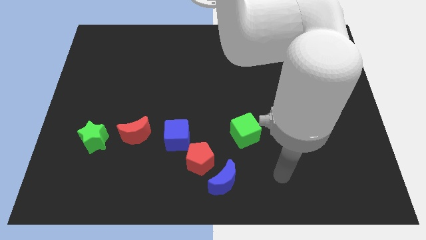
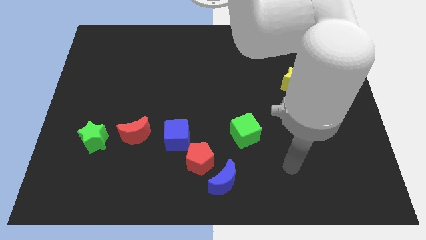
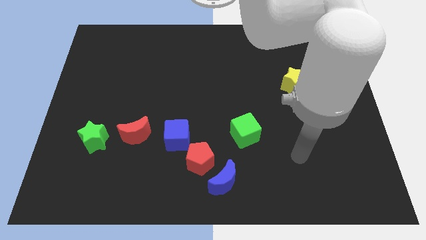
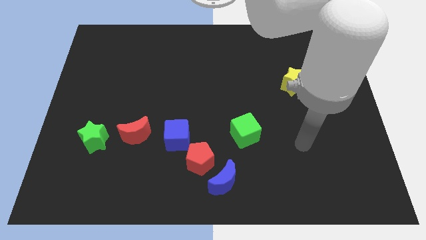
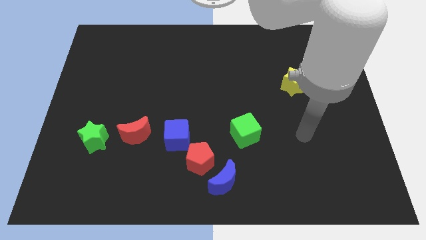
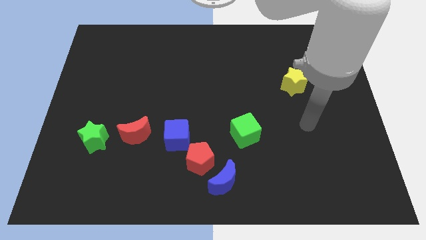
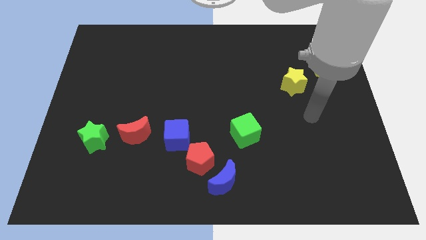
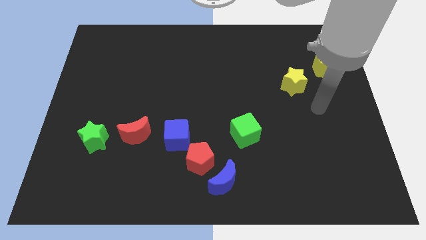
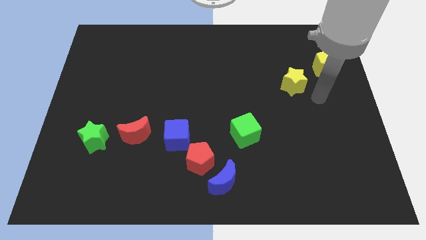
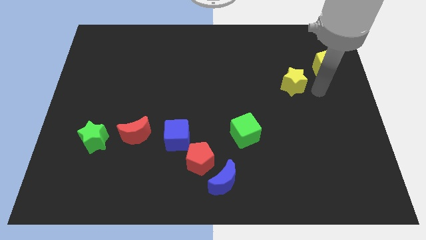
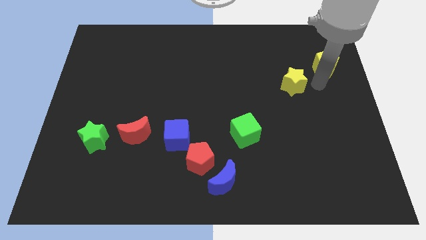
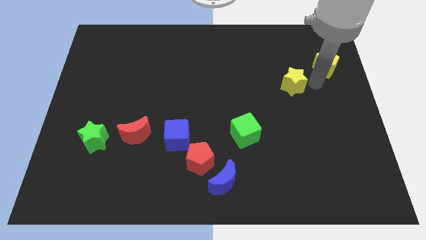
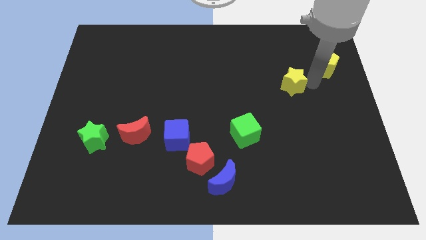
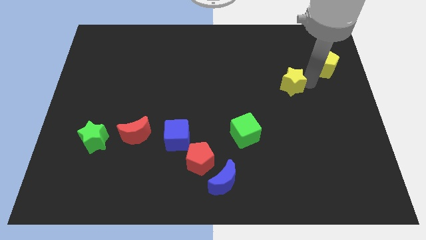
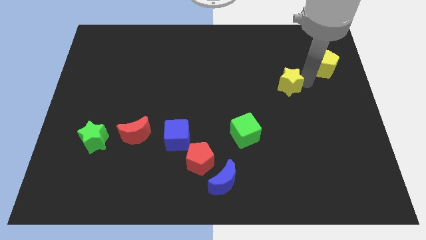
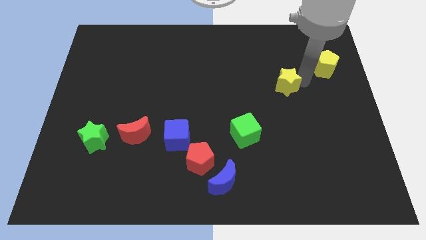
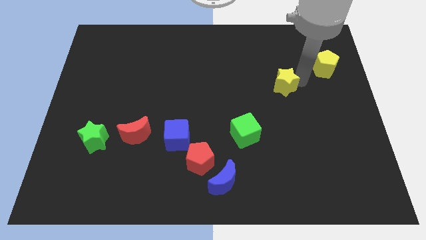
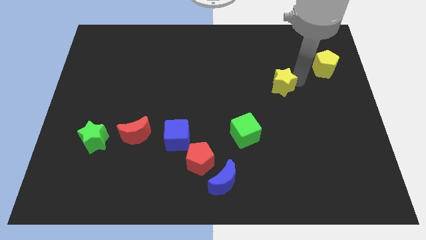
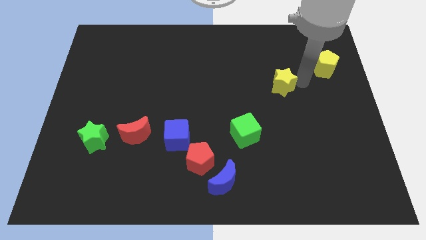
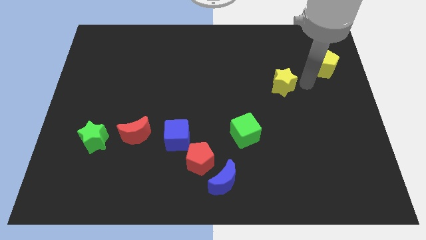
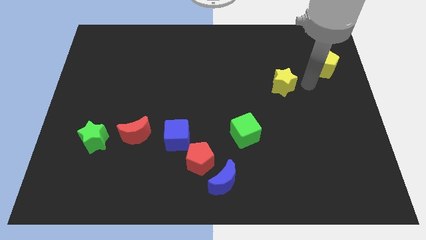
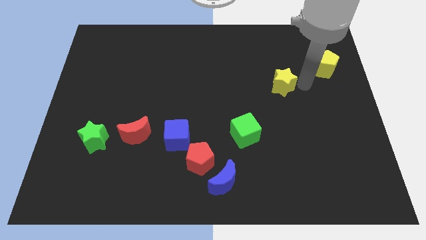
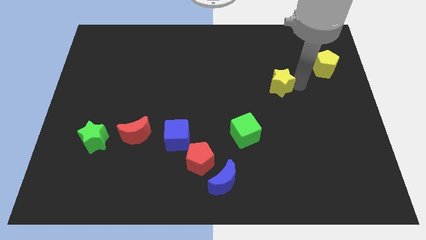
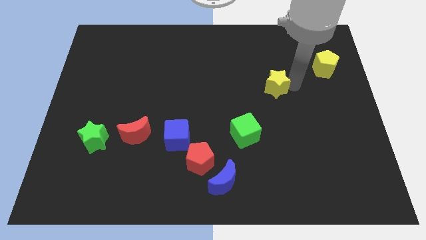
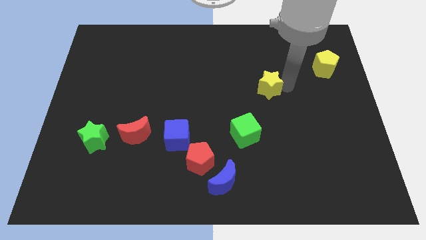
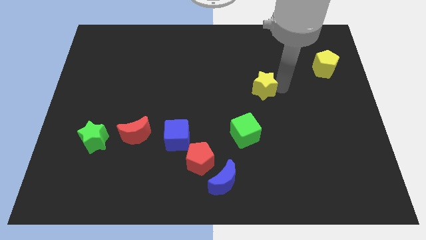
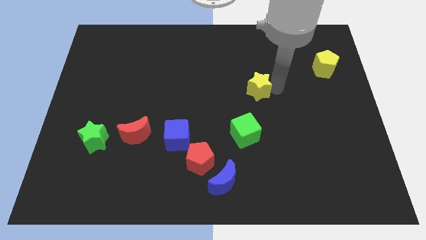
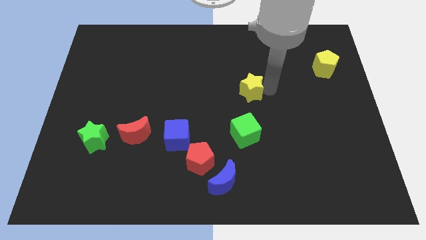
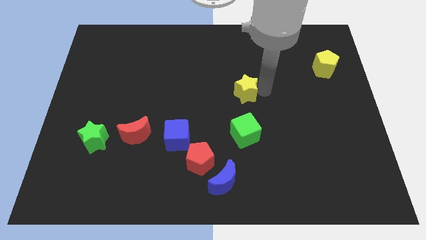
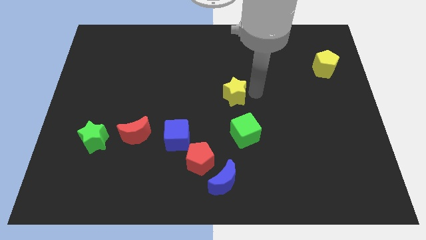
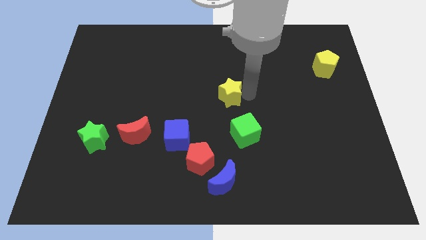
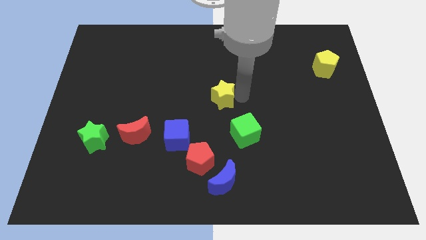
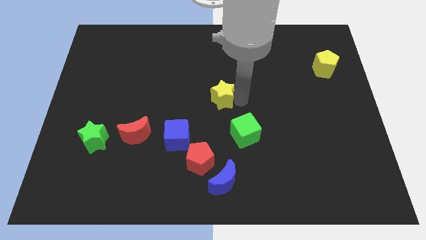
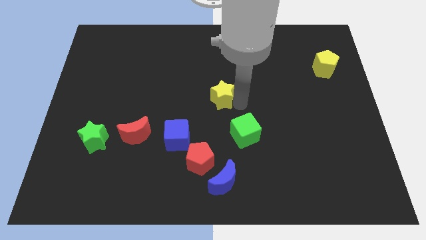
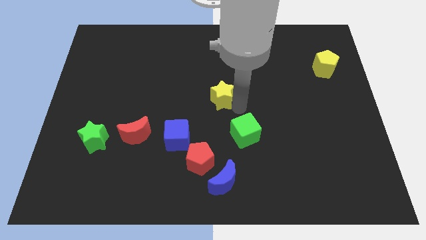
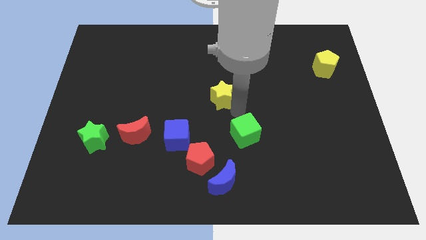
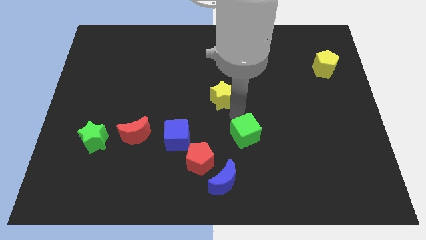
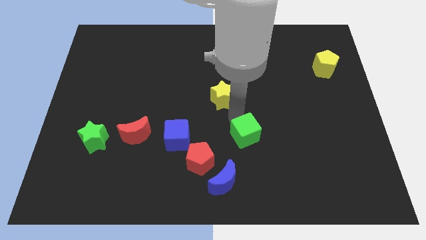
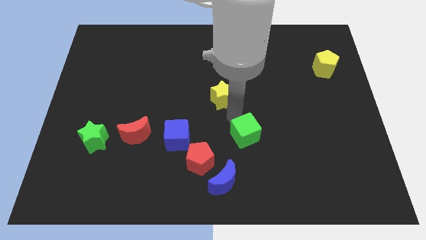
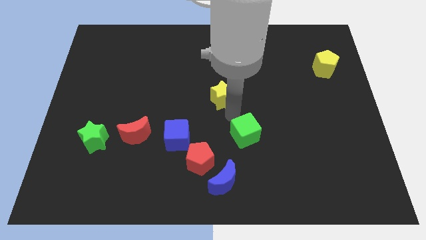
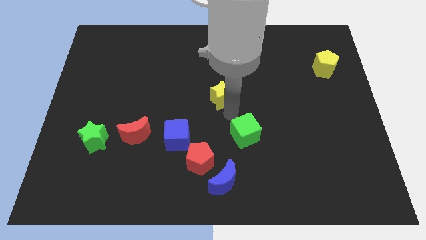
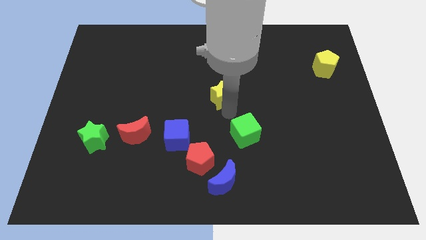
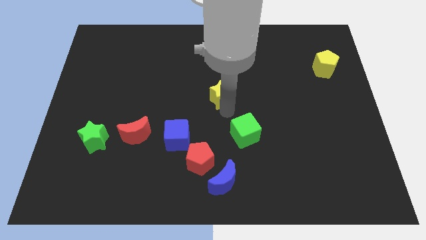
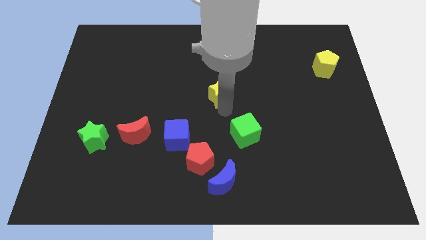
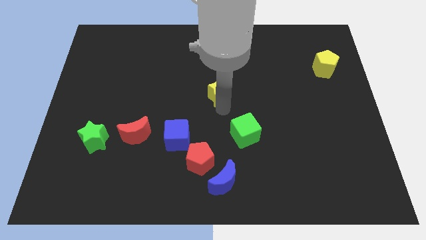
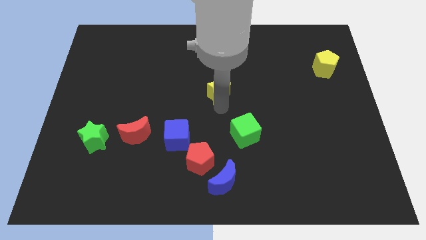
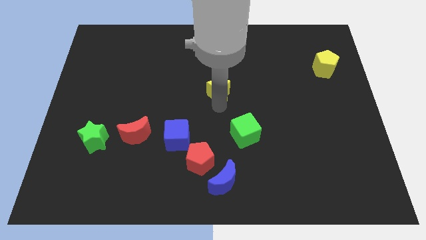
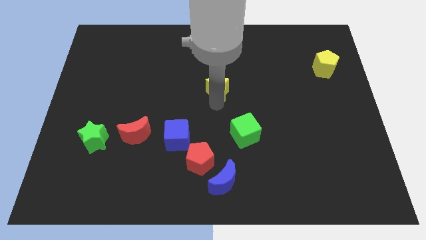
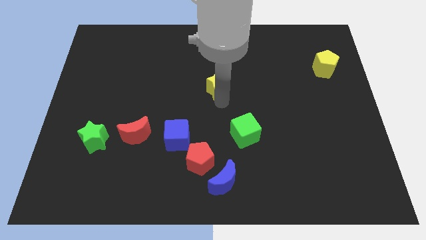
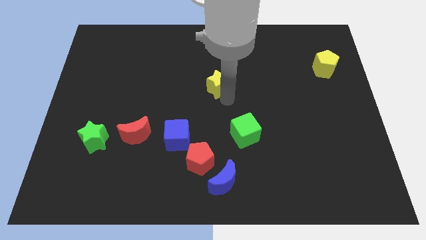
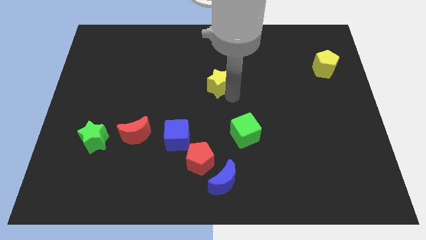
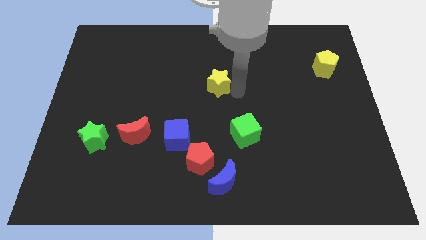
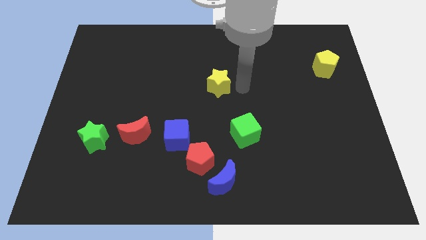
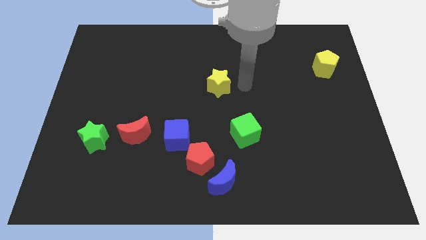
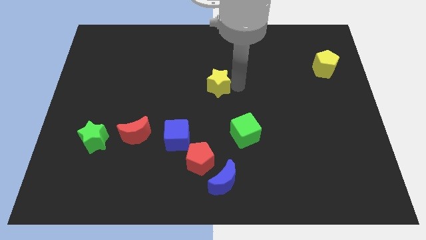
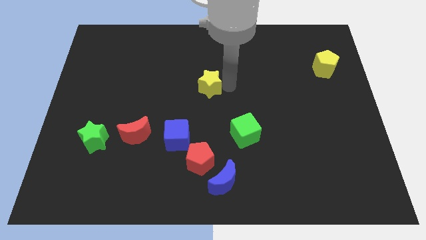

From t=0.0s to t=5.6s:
slide the yellow star to the left

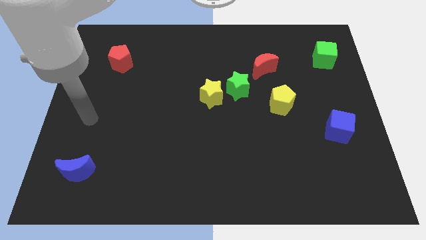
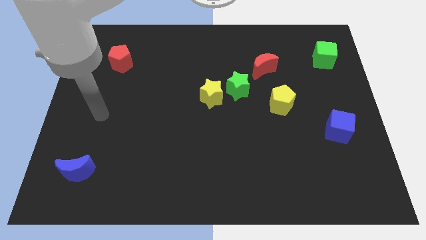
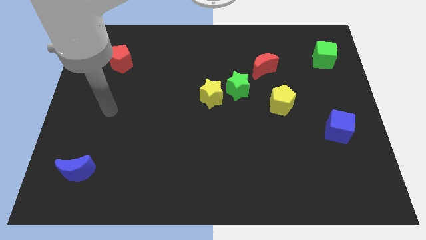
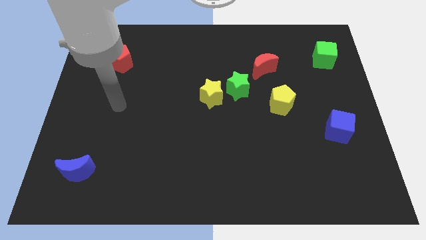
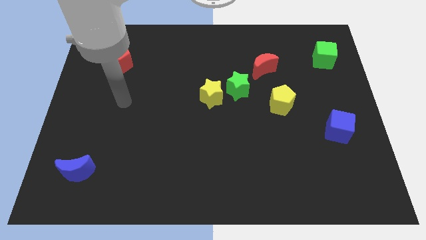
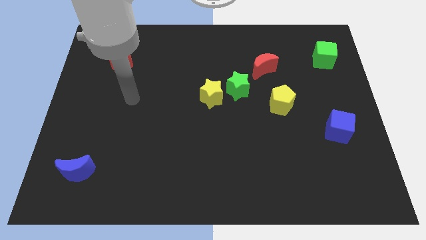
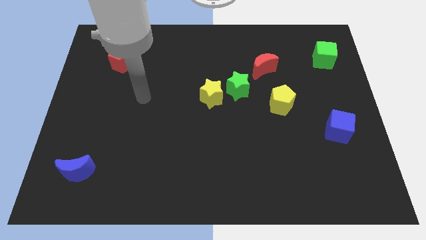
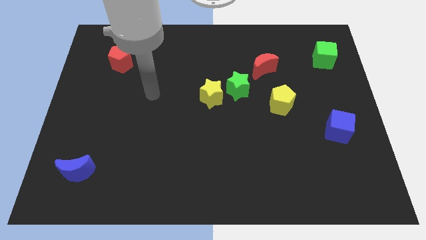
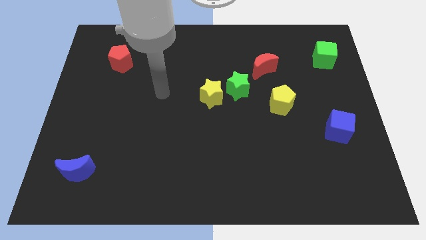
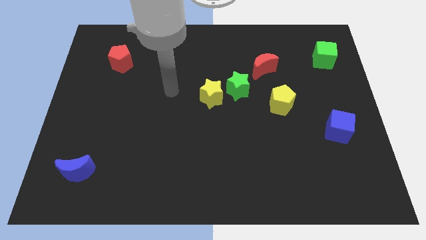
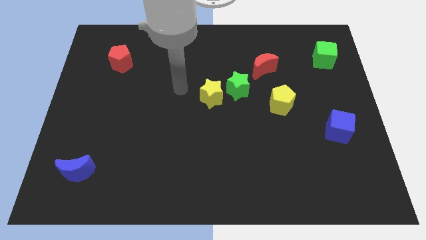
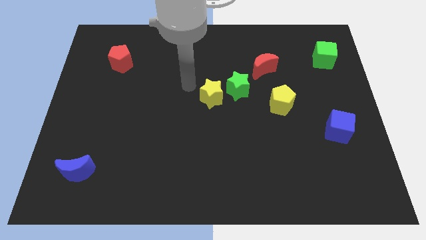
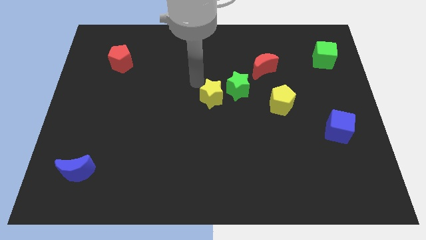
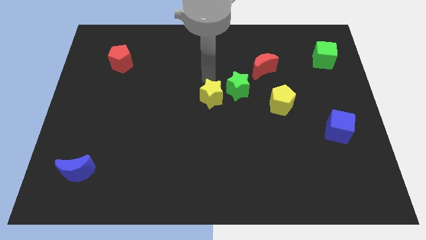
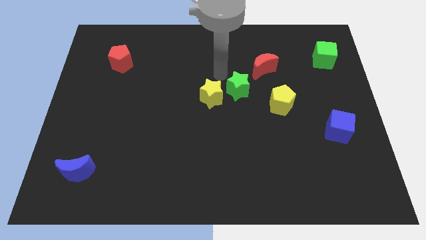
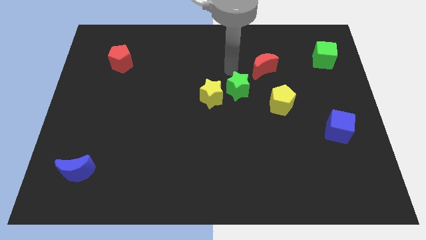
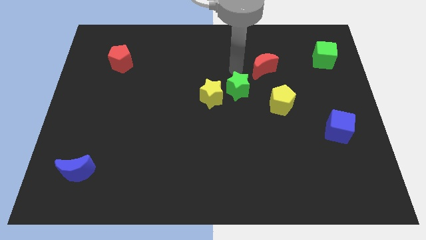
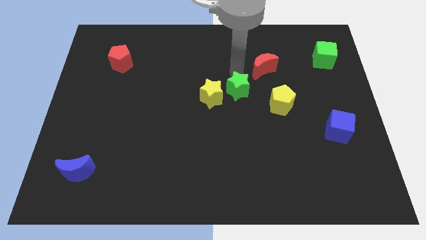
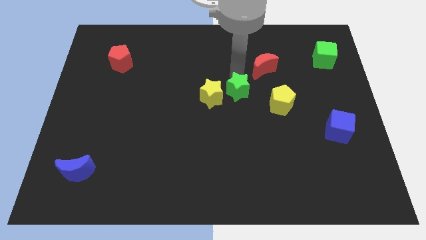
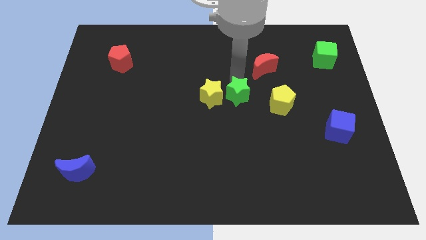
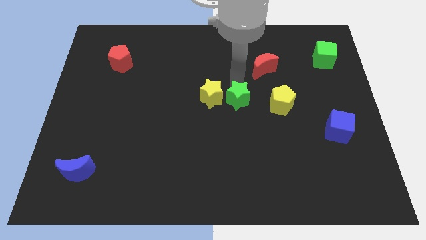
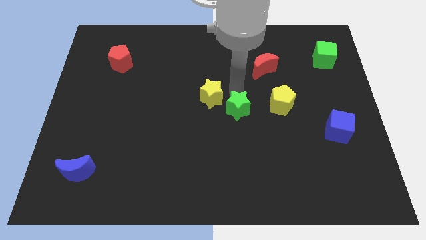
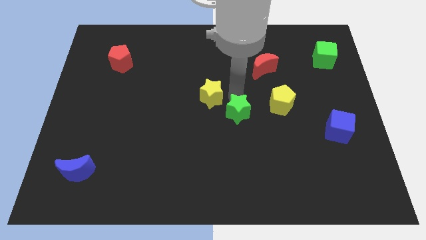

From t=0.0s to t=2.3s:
move the green star a bit downwards

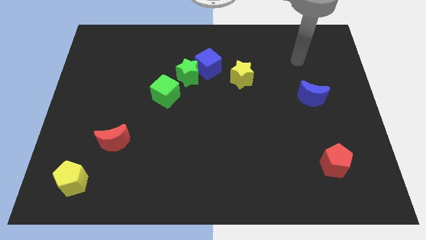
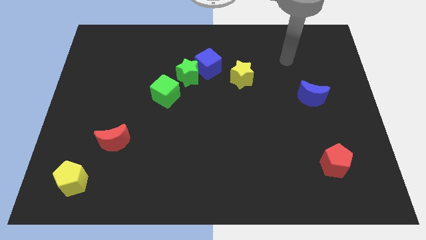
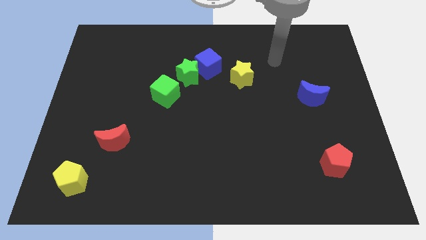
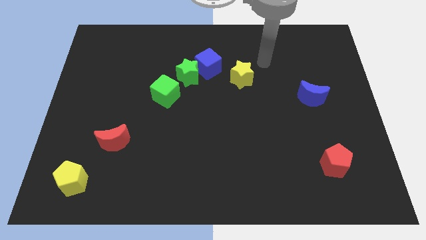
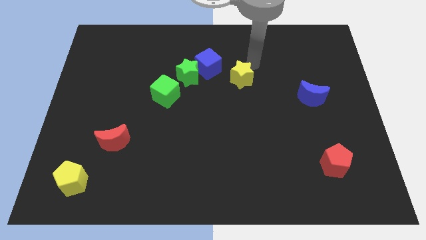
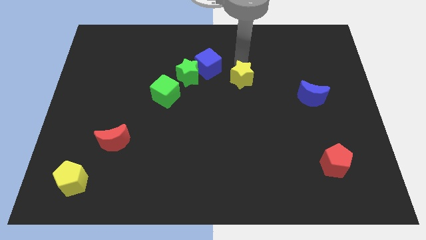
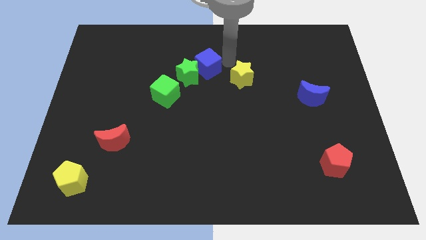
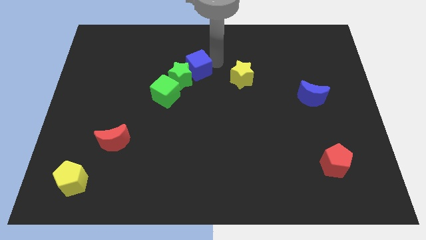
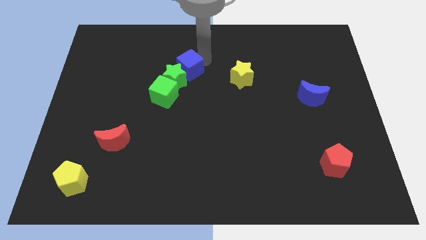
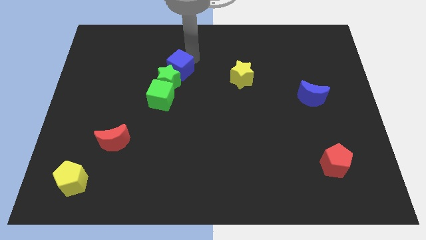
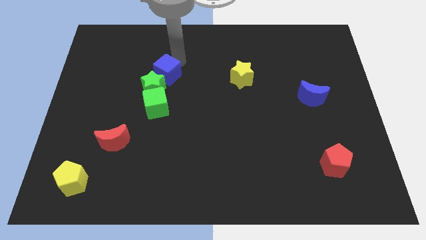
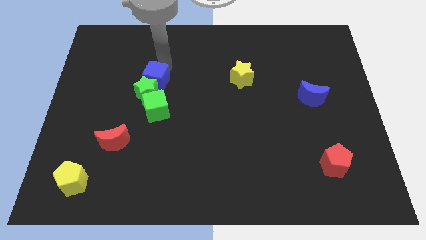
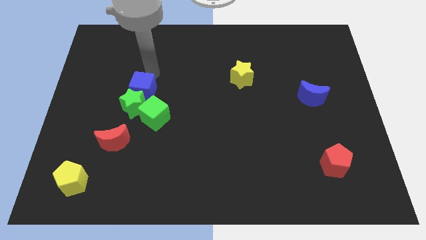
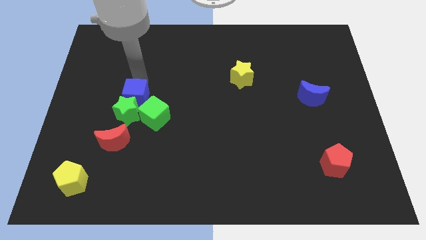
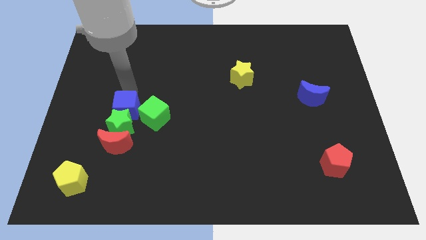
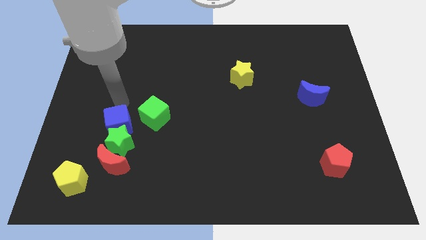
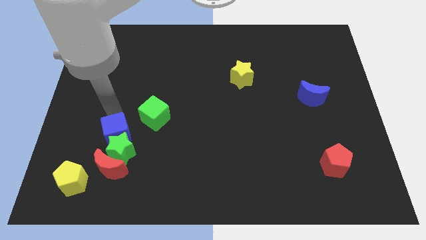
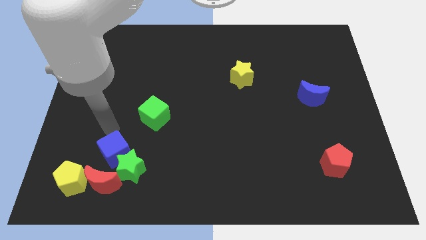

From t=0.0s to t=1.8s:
slide the green star downwards a bit
